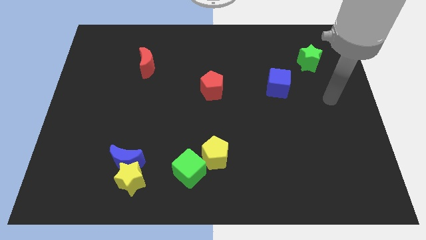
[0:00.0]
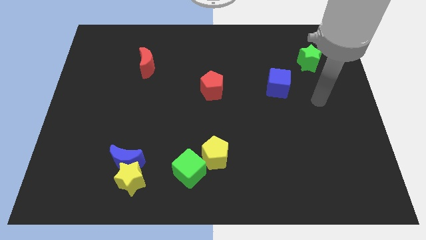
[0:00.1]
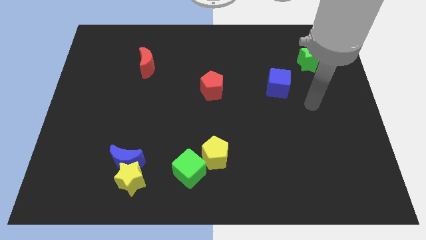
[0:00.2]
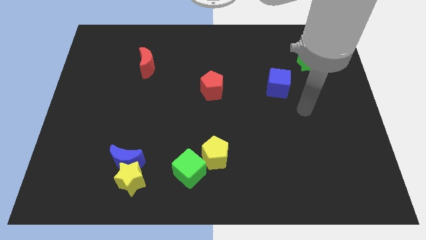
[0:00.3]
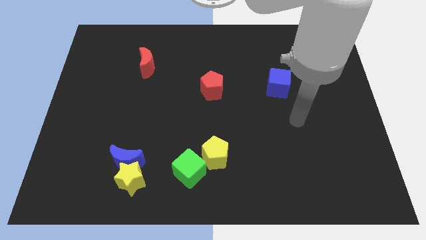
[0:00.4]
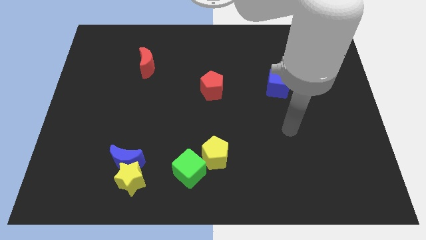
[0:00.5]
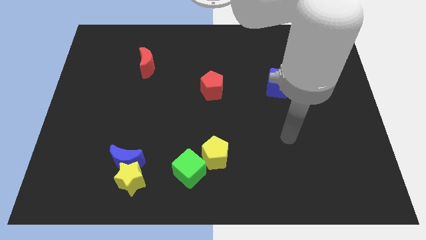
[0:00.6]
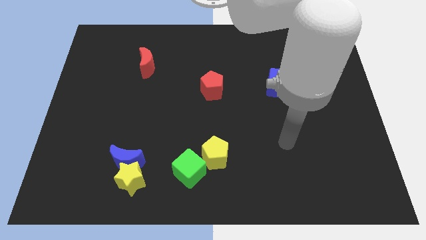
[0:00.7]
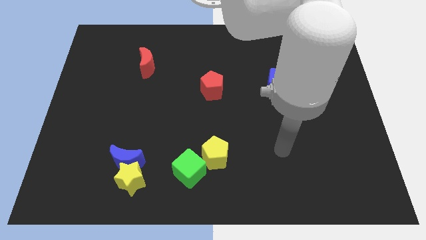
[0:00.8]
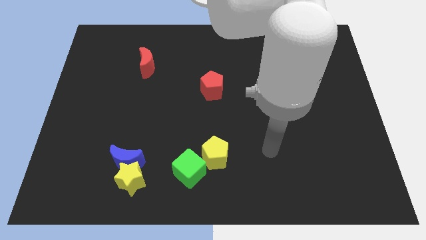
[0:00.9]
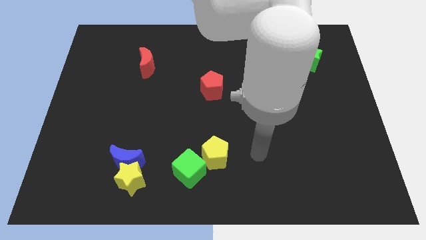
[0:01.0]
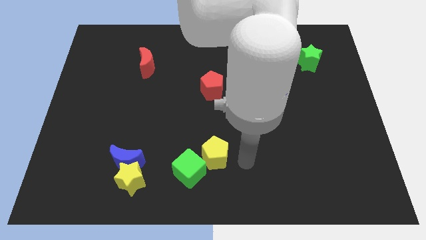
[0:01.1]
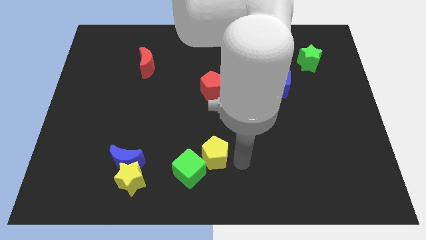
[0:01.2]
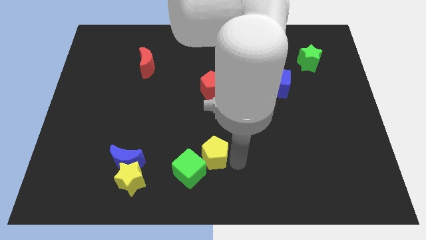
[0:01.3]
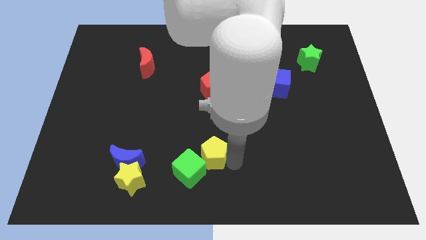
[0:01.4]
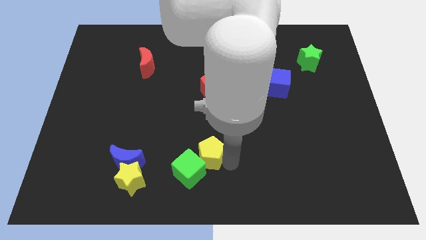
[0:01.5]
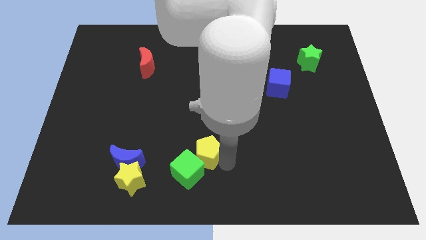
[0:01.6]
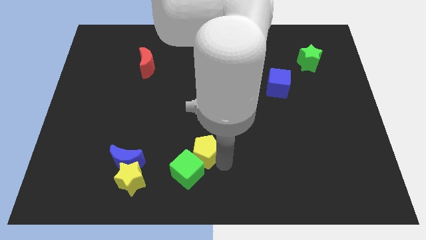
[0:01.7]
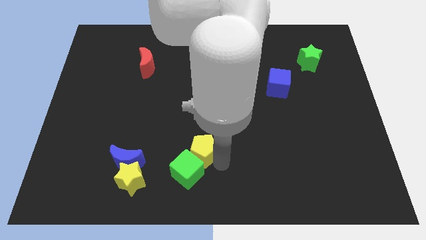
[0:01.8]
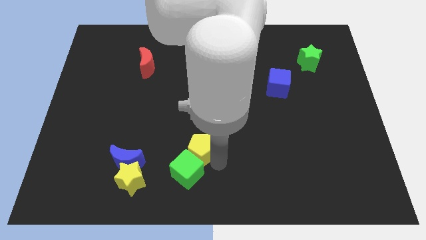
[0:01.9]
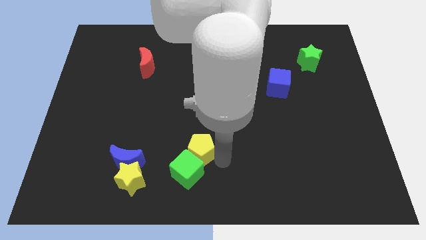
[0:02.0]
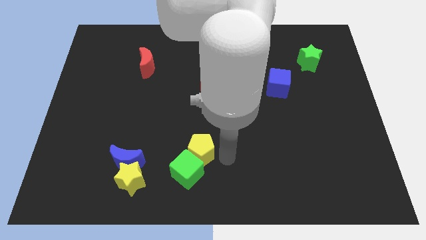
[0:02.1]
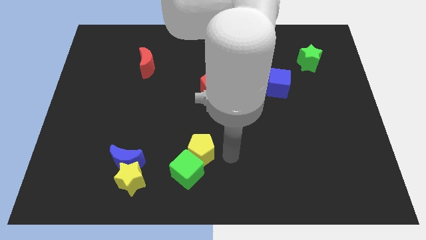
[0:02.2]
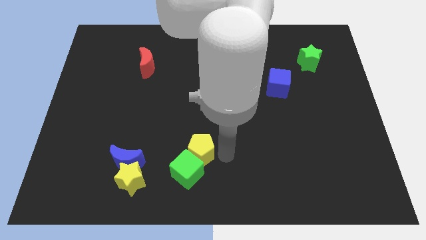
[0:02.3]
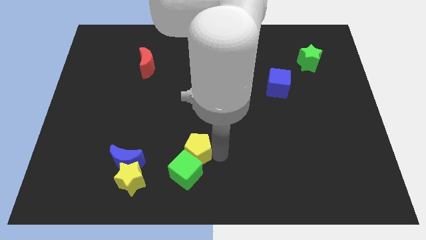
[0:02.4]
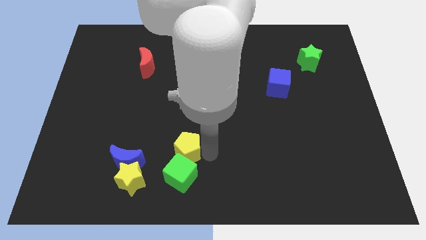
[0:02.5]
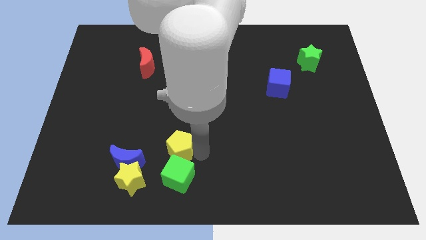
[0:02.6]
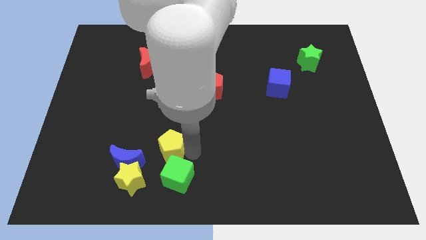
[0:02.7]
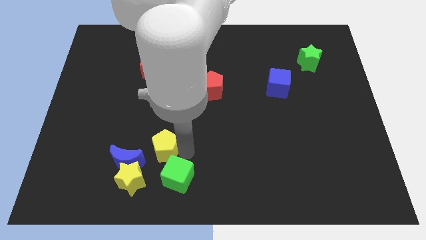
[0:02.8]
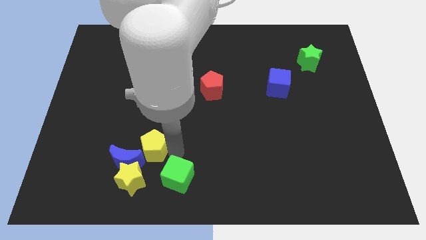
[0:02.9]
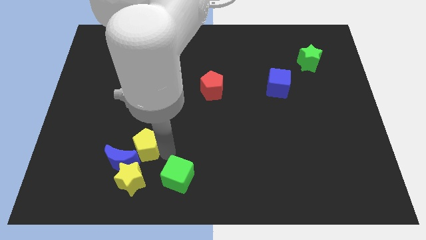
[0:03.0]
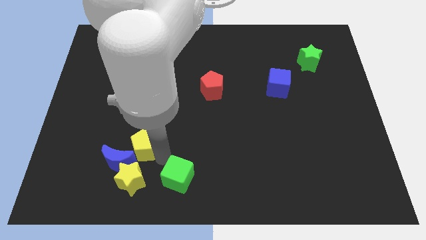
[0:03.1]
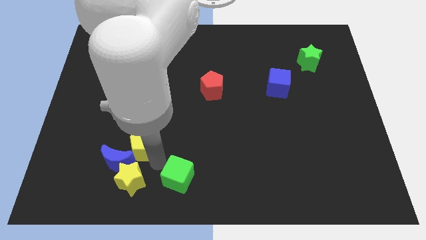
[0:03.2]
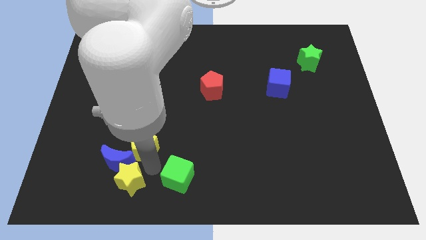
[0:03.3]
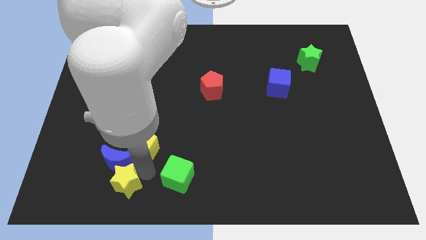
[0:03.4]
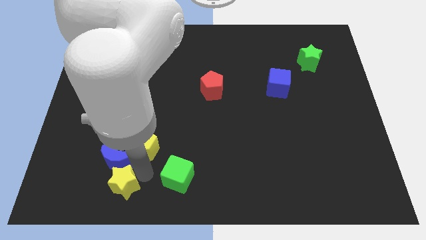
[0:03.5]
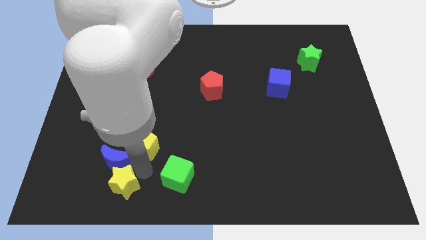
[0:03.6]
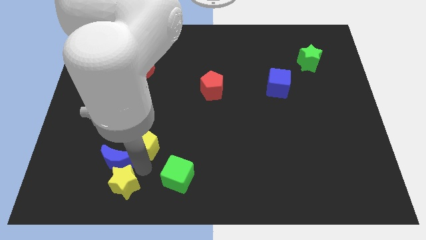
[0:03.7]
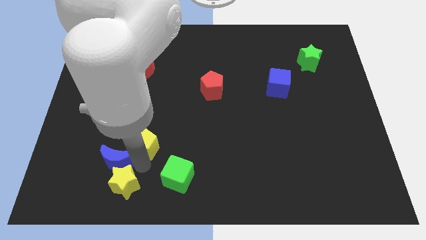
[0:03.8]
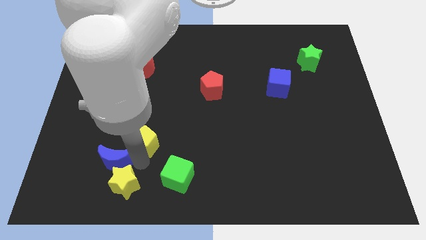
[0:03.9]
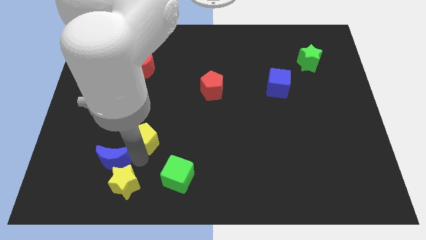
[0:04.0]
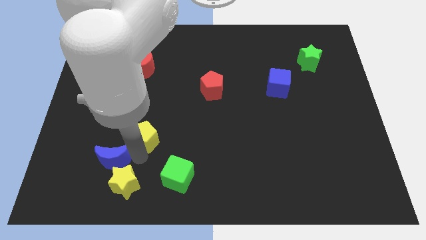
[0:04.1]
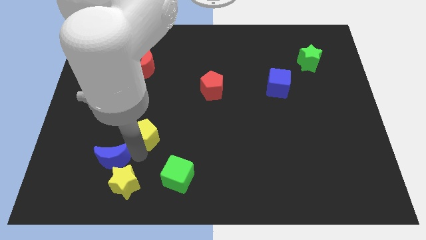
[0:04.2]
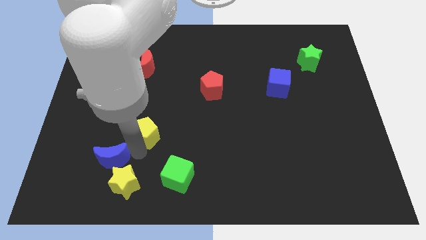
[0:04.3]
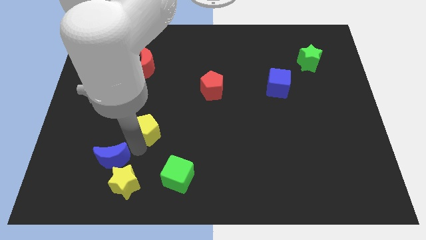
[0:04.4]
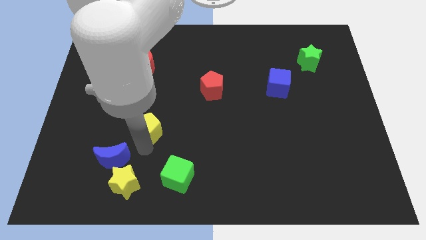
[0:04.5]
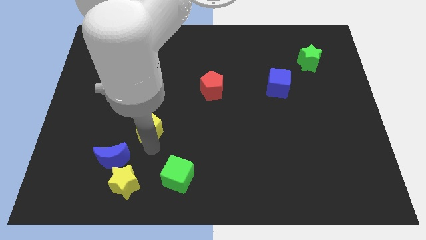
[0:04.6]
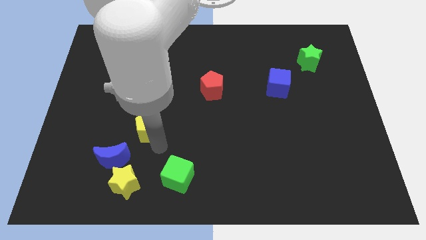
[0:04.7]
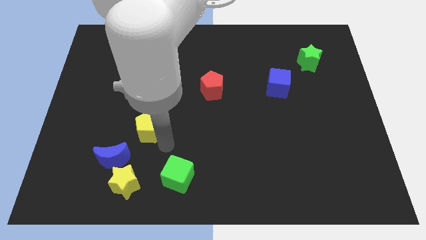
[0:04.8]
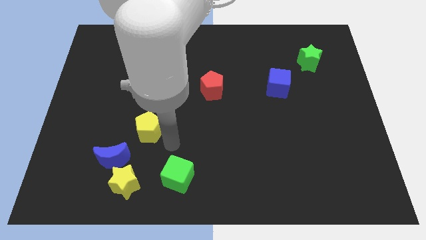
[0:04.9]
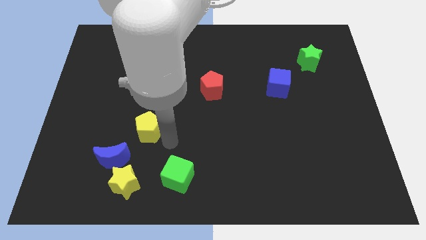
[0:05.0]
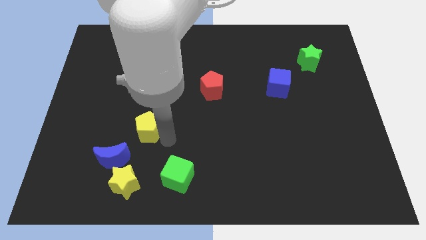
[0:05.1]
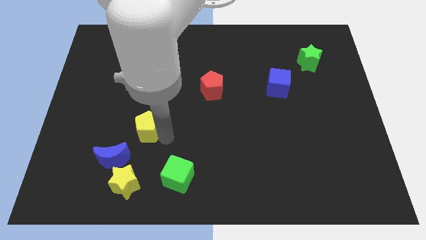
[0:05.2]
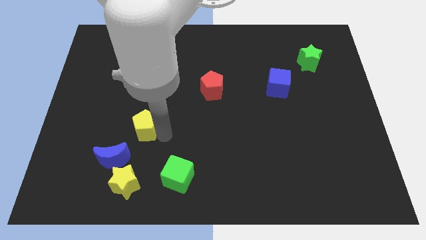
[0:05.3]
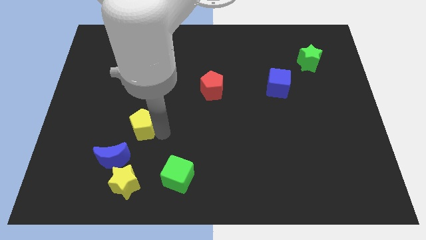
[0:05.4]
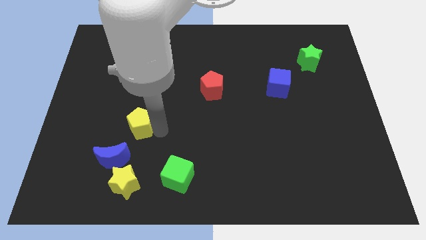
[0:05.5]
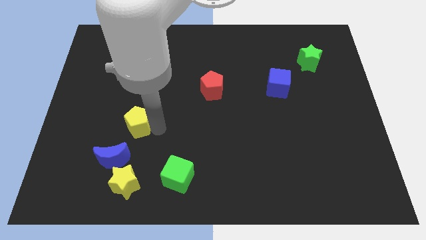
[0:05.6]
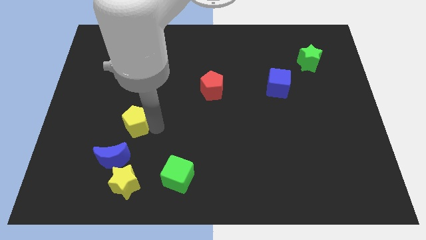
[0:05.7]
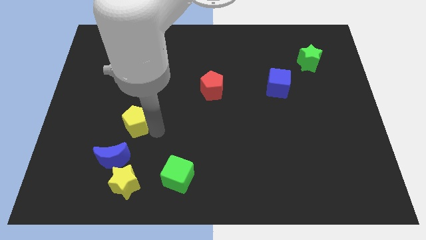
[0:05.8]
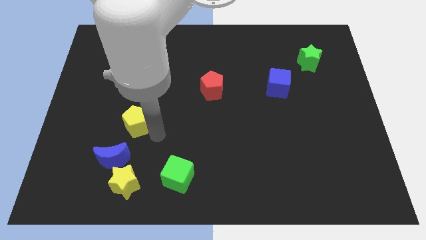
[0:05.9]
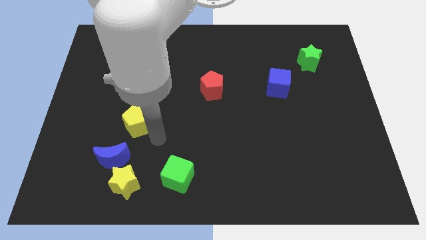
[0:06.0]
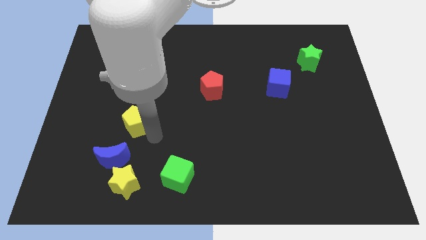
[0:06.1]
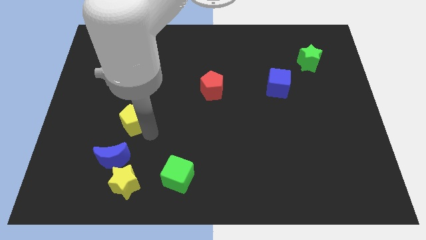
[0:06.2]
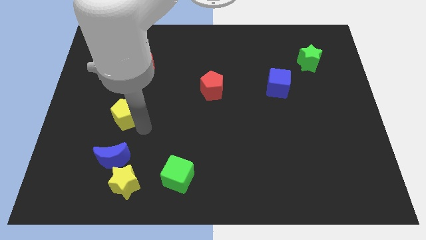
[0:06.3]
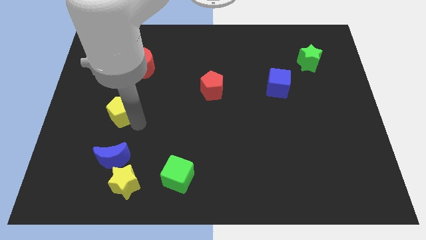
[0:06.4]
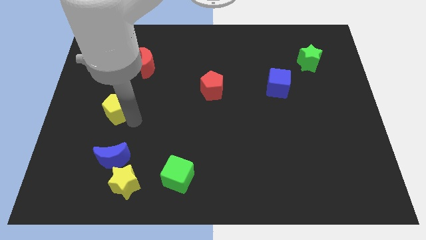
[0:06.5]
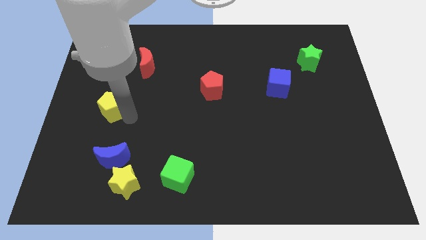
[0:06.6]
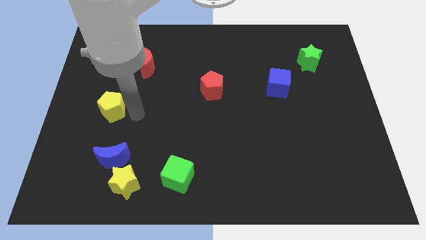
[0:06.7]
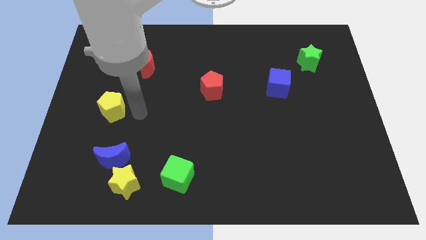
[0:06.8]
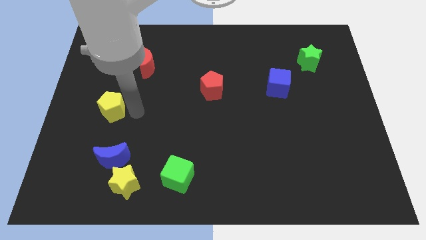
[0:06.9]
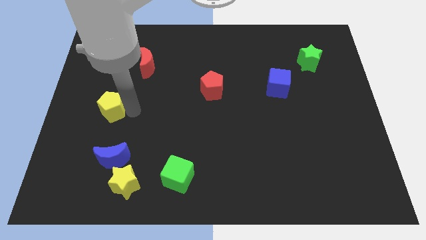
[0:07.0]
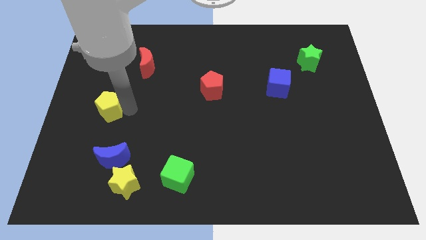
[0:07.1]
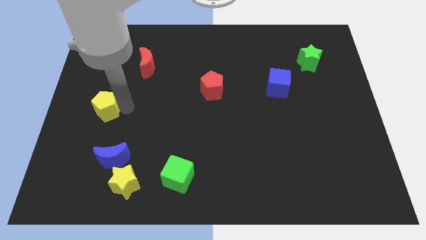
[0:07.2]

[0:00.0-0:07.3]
move the yellow pentagon to the left side
